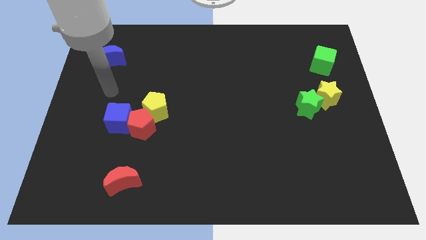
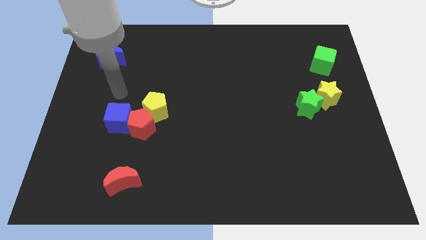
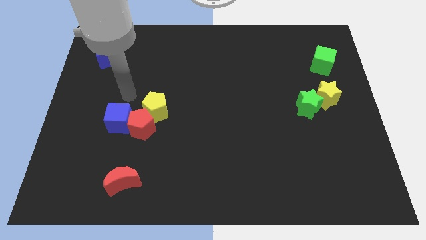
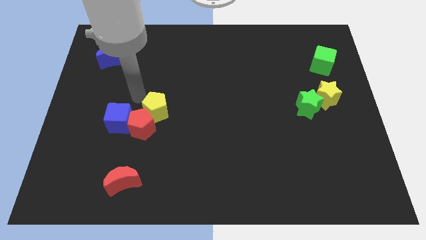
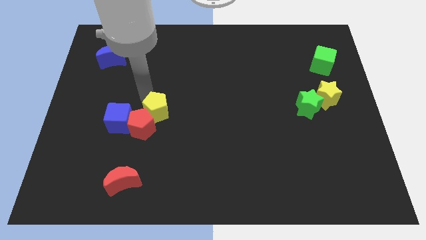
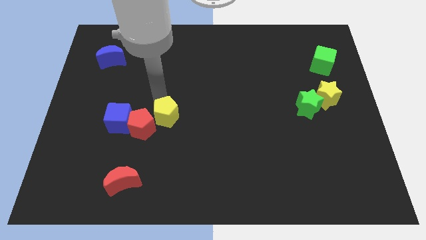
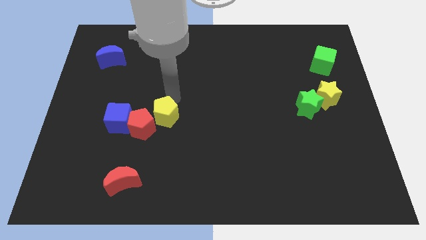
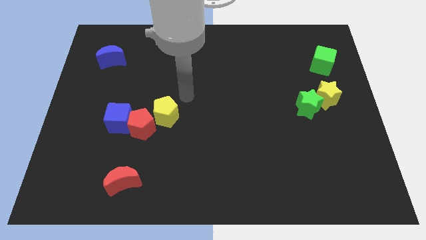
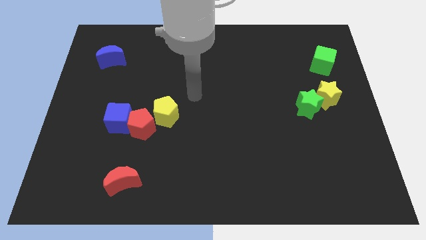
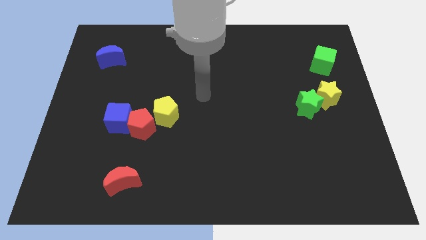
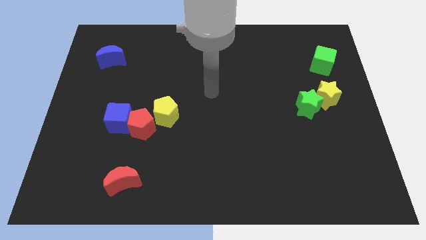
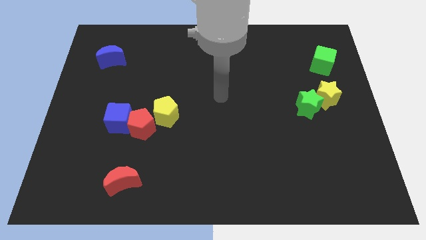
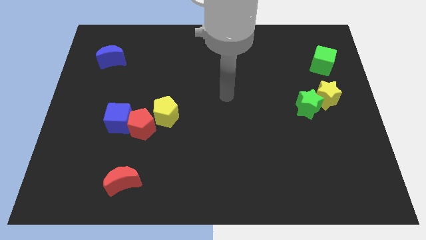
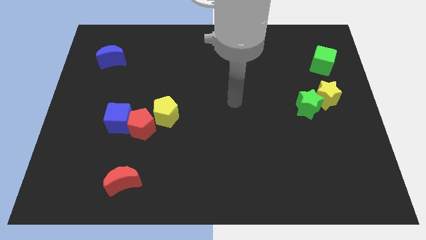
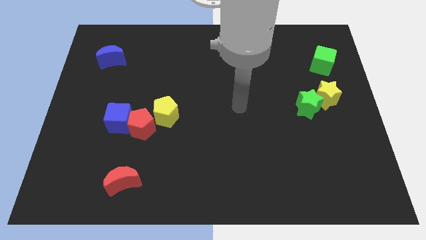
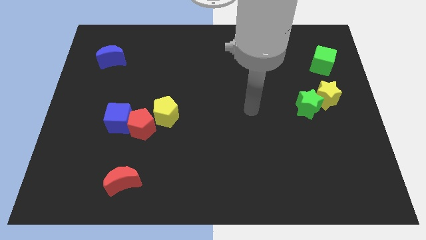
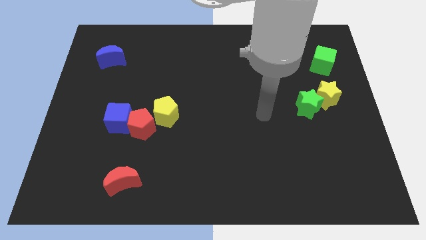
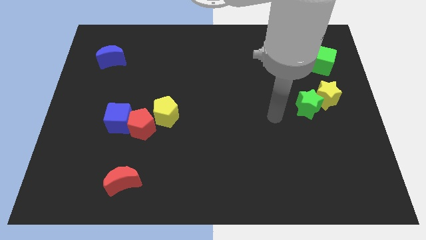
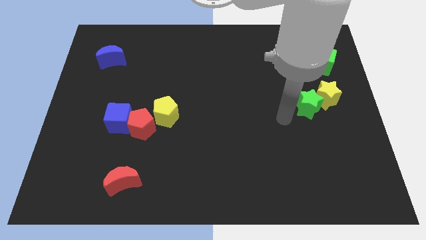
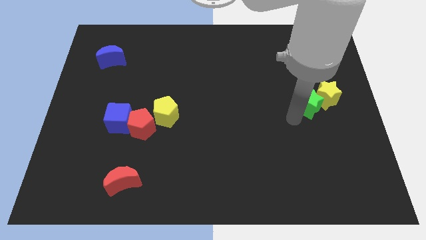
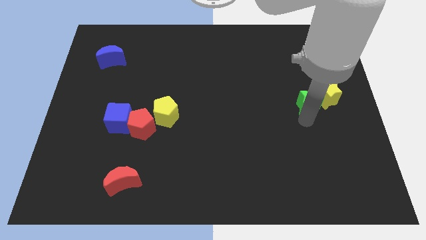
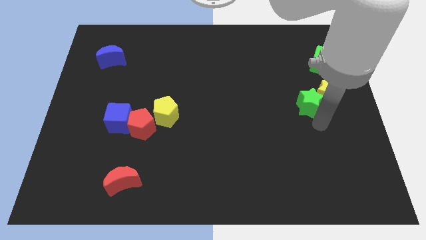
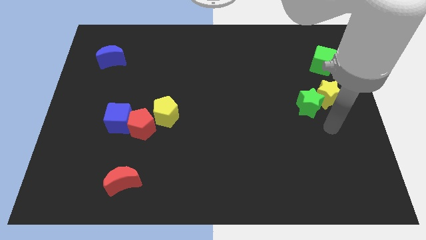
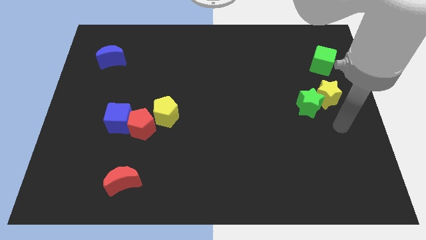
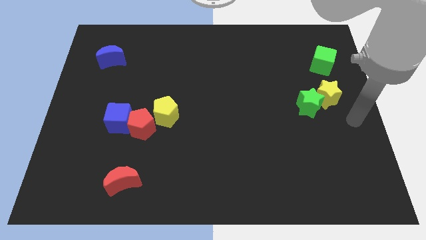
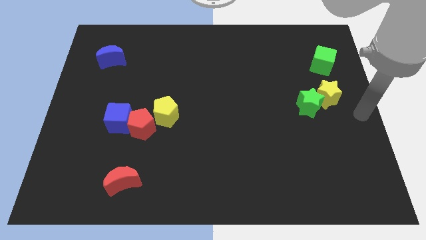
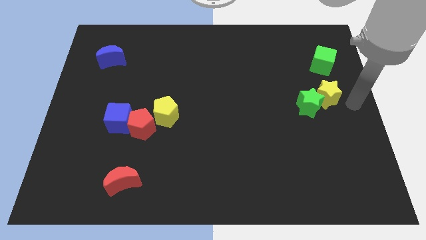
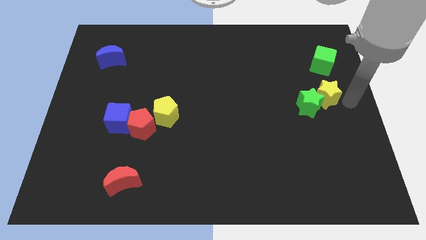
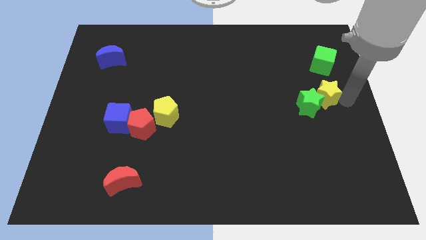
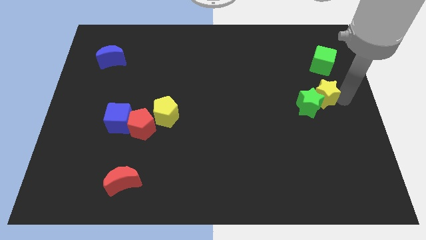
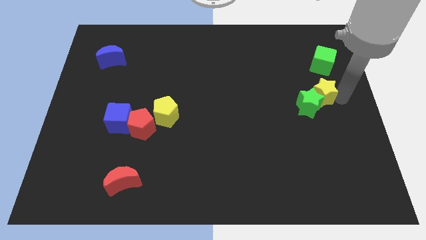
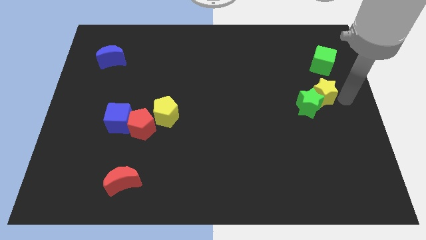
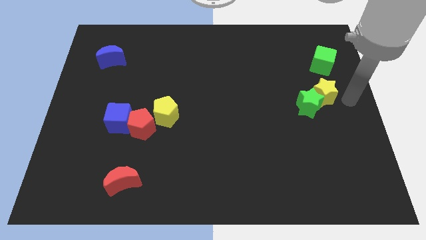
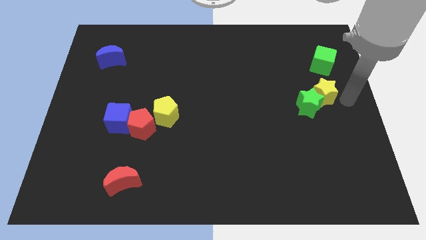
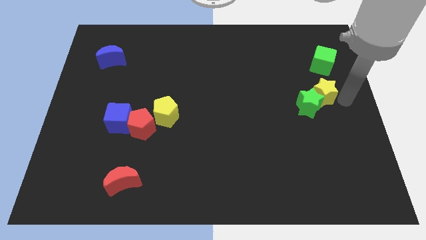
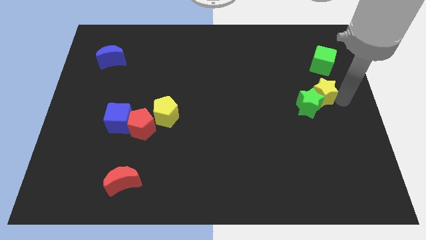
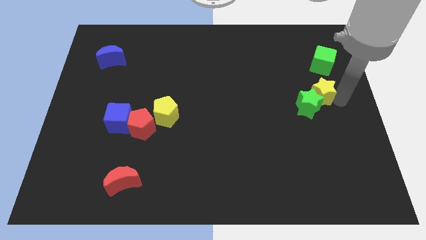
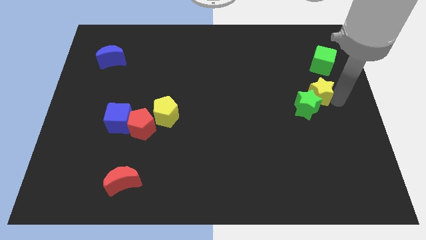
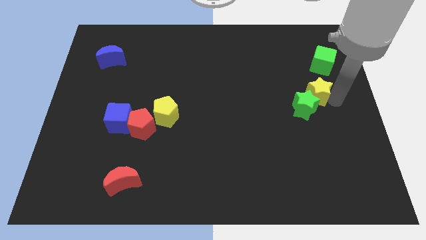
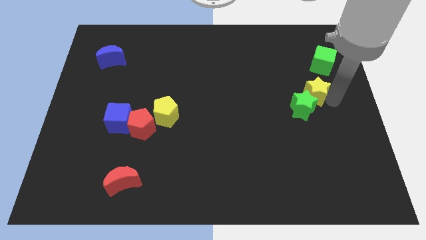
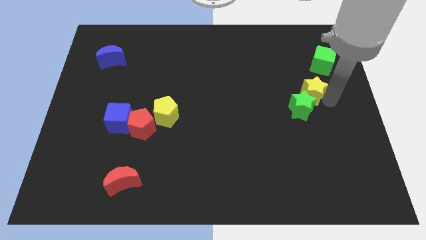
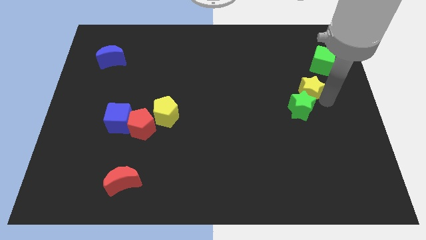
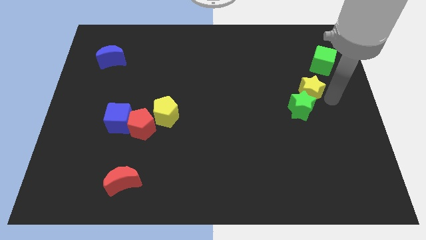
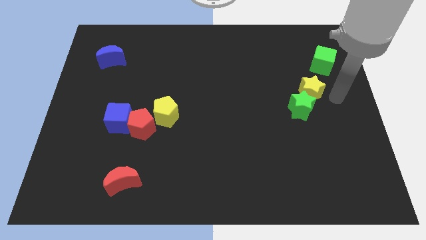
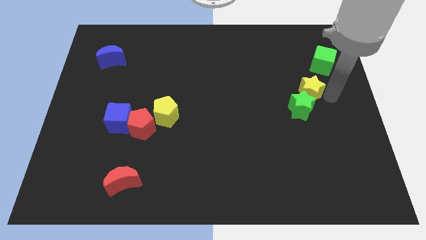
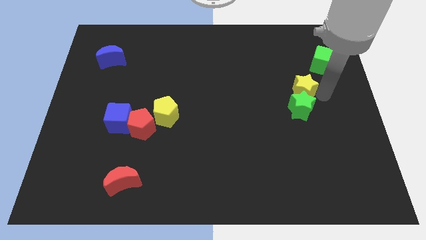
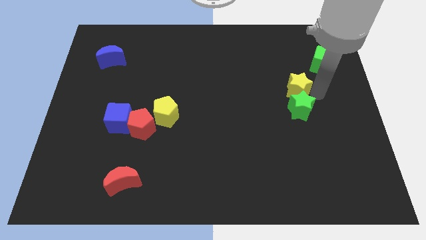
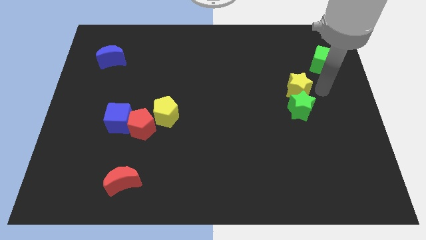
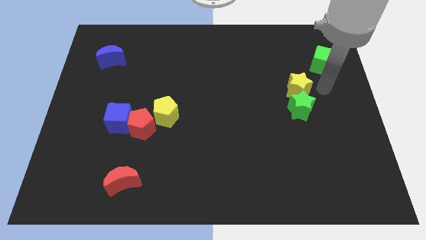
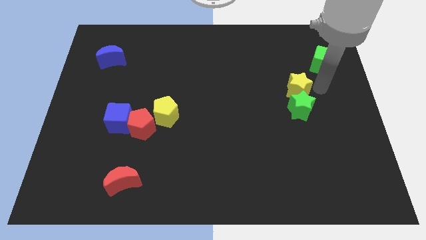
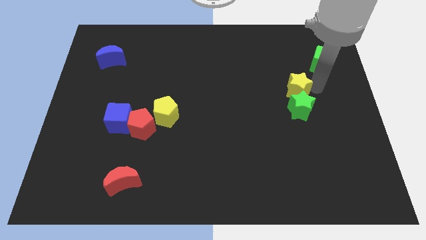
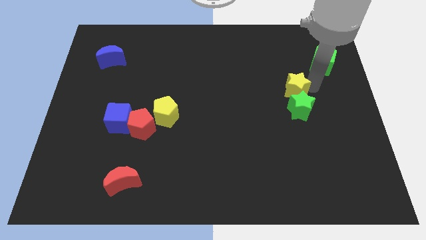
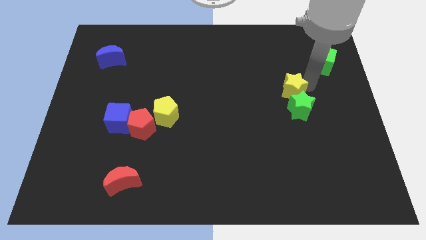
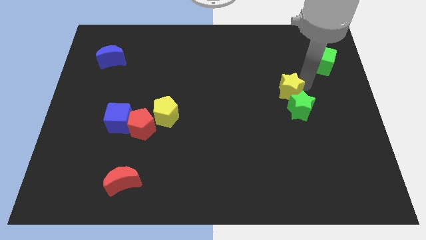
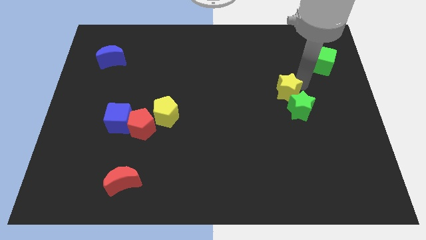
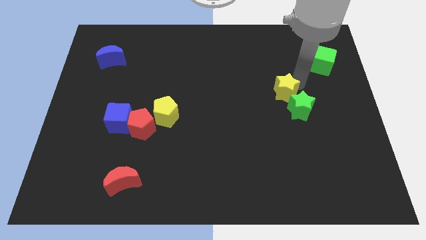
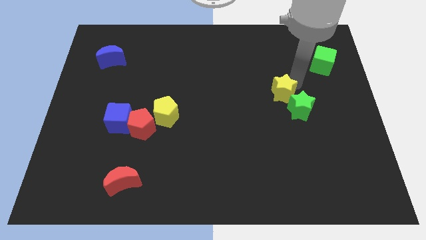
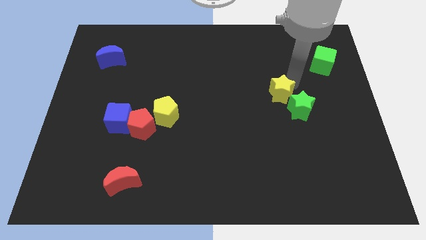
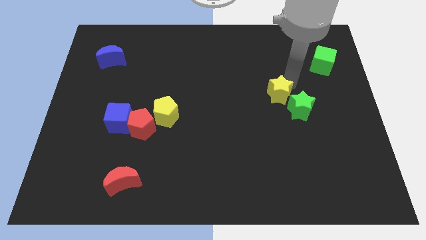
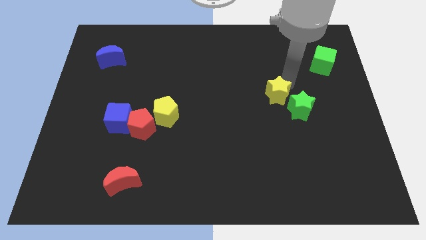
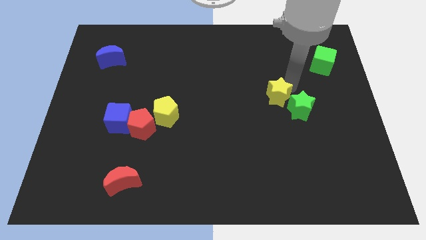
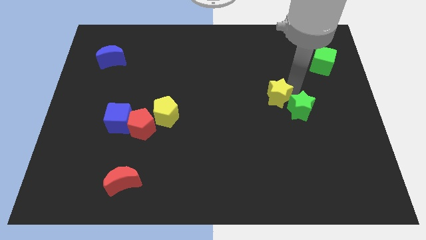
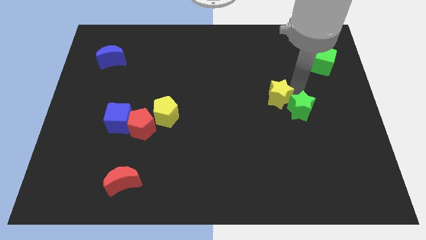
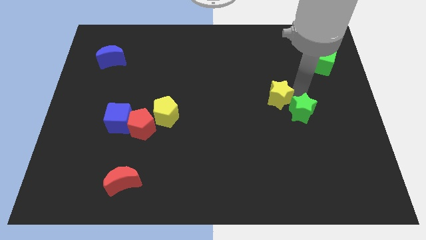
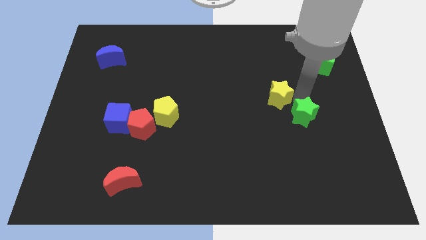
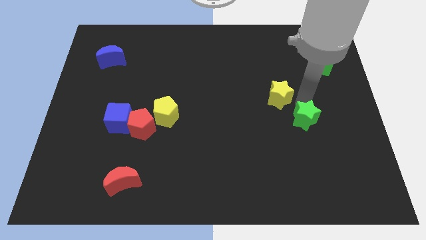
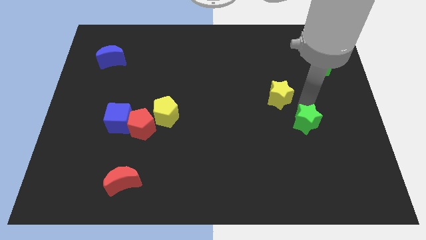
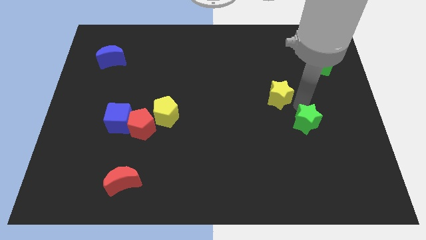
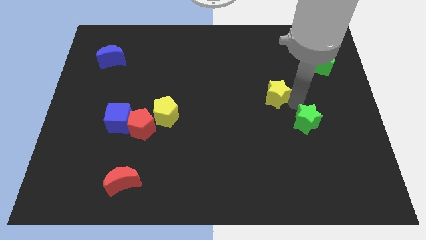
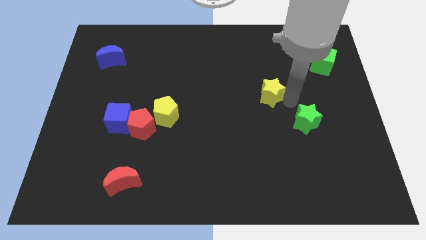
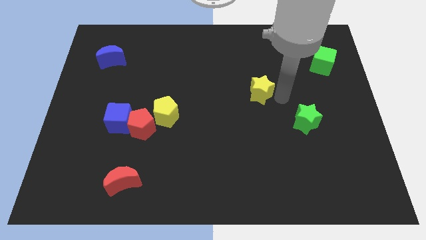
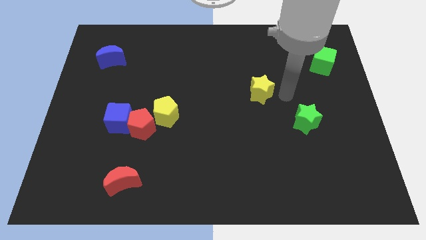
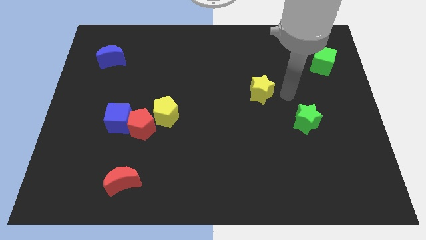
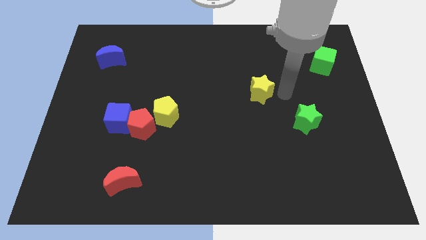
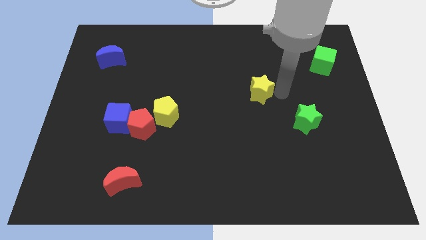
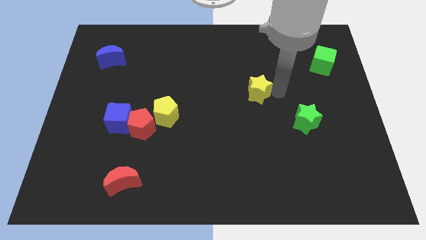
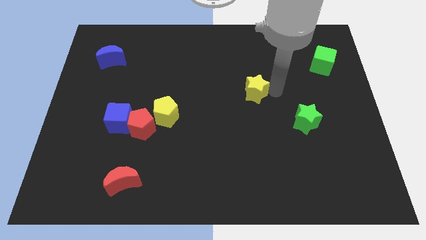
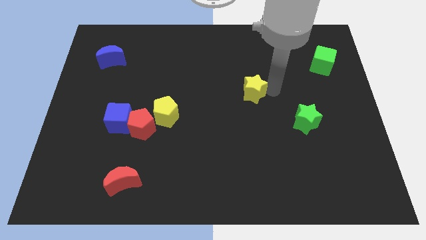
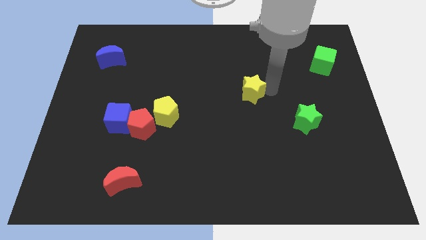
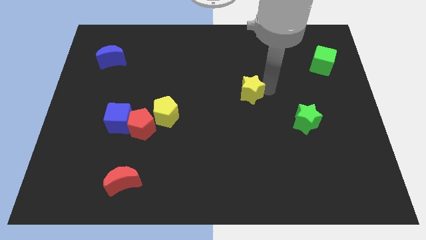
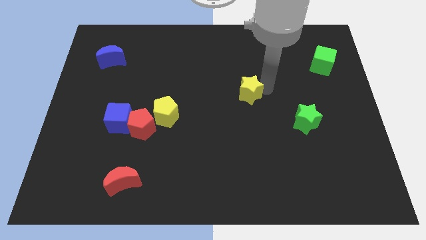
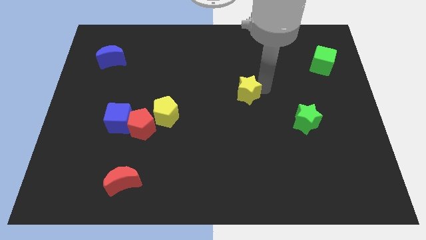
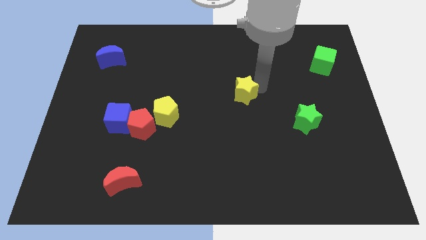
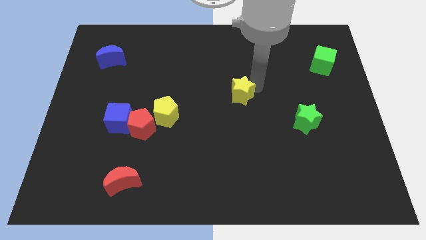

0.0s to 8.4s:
push the yellow star to the left
